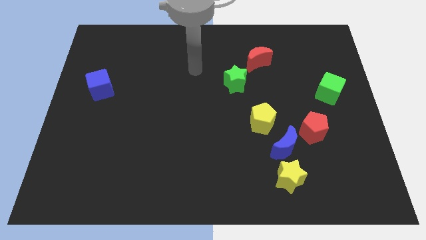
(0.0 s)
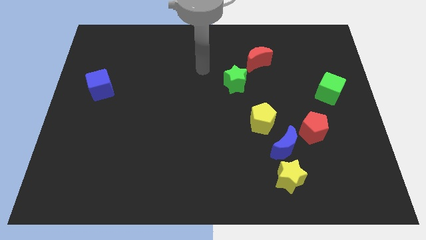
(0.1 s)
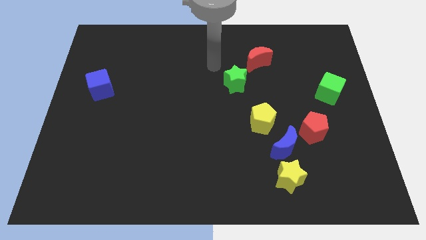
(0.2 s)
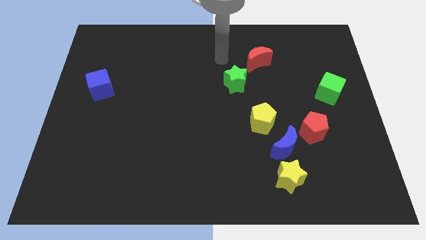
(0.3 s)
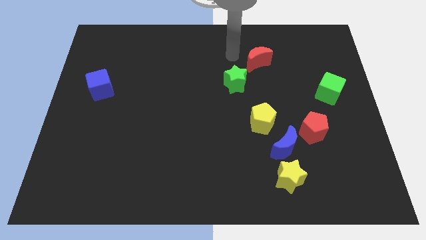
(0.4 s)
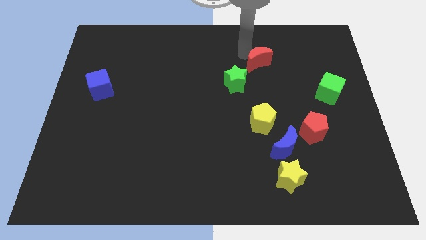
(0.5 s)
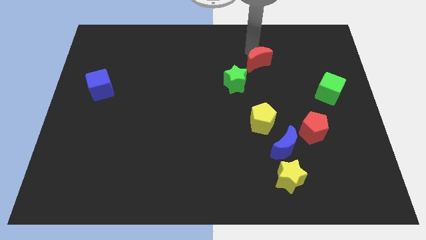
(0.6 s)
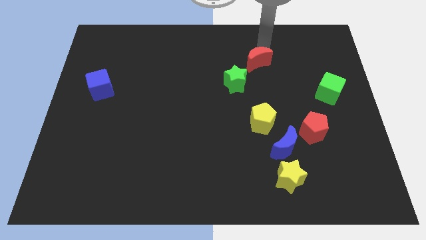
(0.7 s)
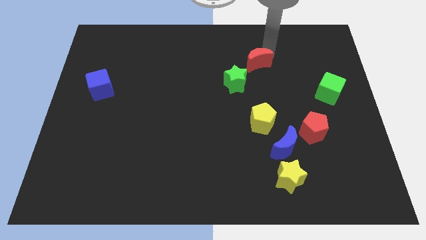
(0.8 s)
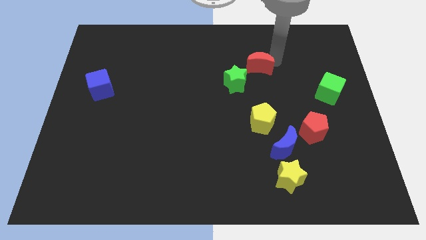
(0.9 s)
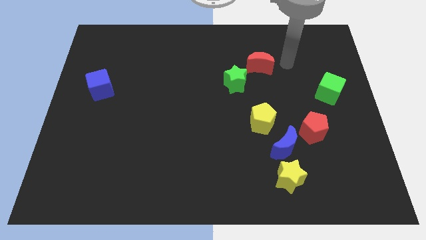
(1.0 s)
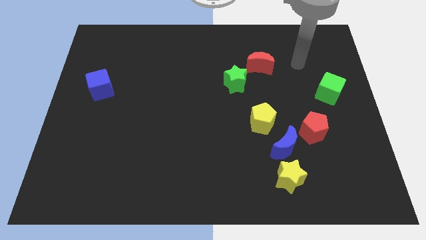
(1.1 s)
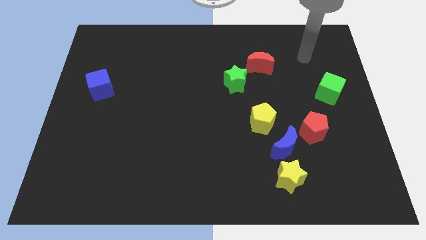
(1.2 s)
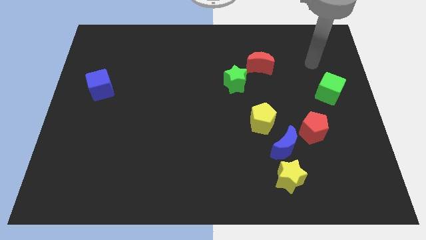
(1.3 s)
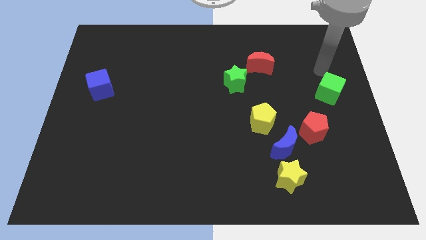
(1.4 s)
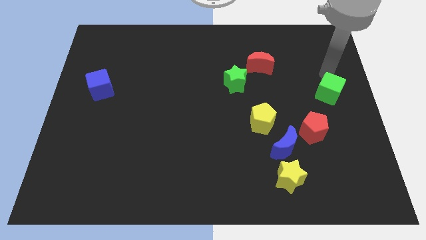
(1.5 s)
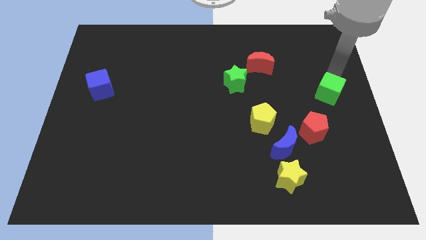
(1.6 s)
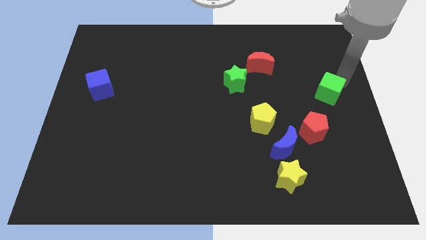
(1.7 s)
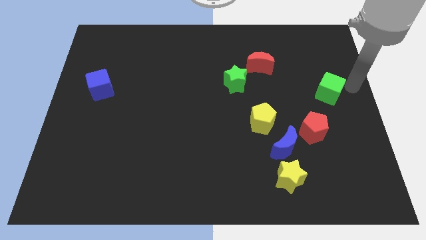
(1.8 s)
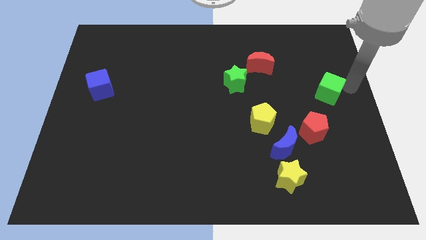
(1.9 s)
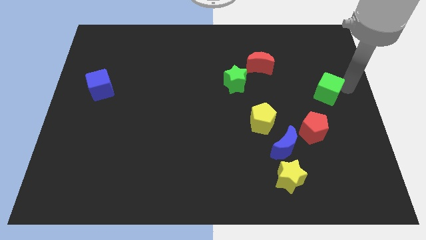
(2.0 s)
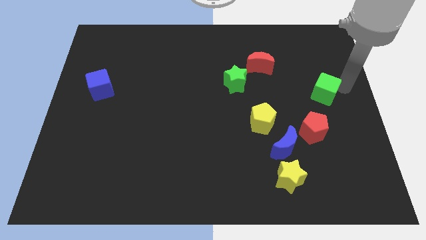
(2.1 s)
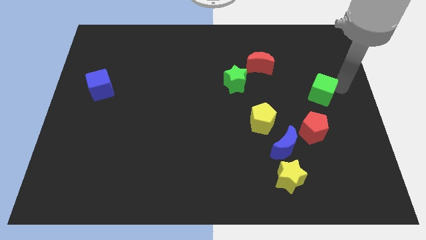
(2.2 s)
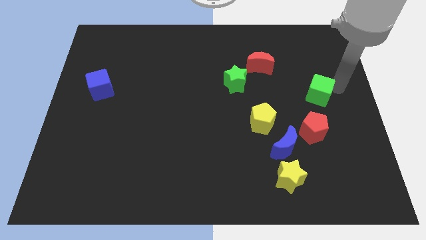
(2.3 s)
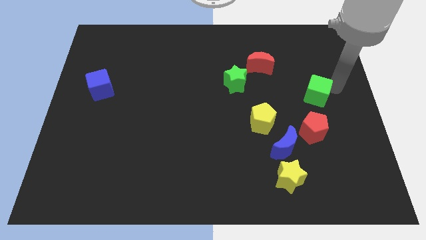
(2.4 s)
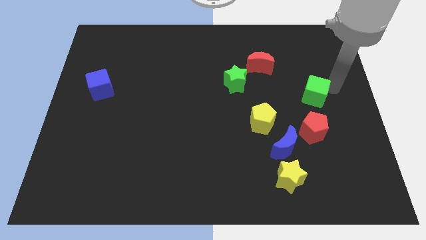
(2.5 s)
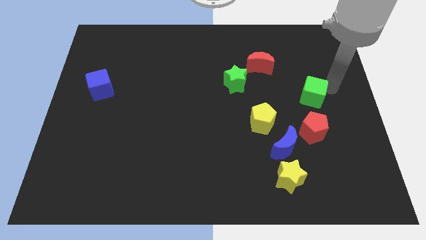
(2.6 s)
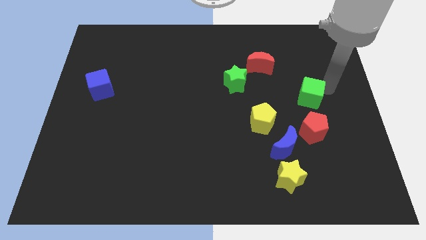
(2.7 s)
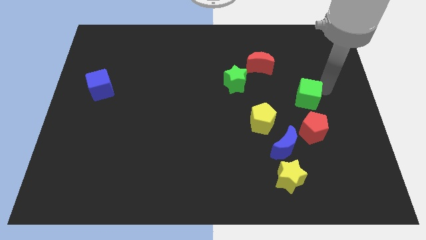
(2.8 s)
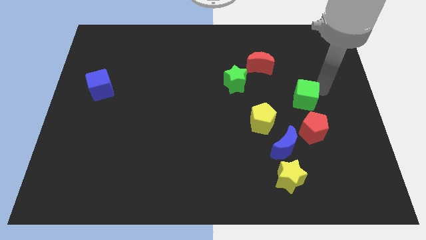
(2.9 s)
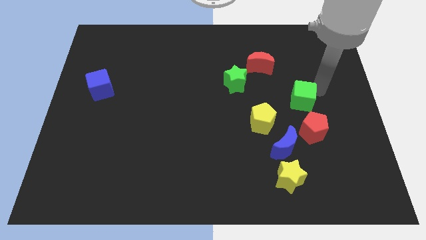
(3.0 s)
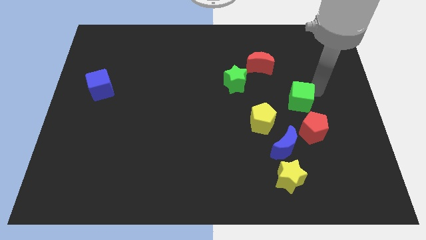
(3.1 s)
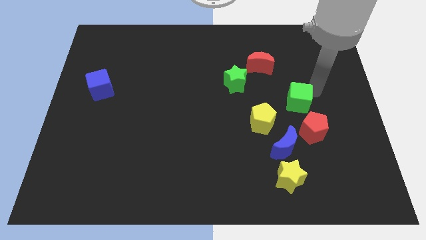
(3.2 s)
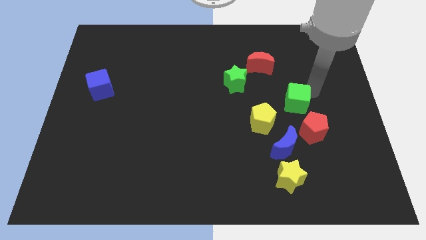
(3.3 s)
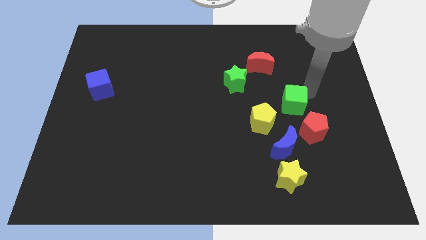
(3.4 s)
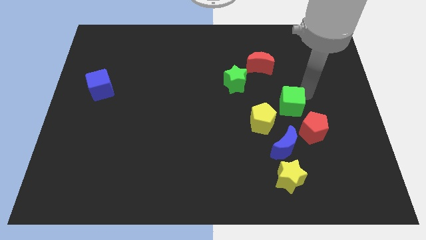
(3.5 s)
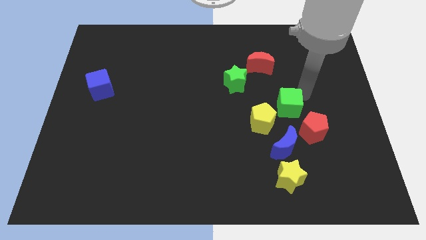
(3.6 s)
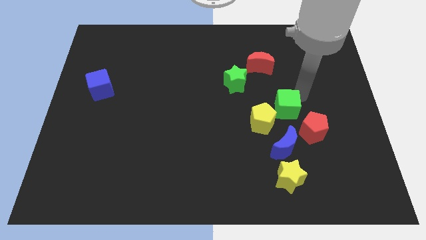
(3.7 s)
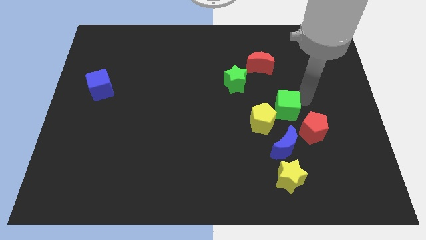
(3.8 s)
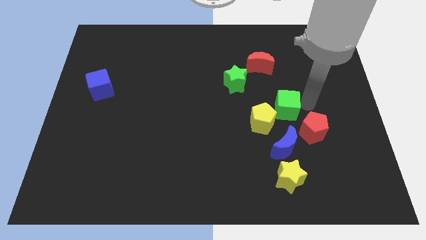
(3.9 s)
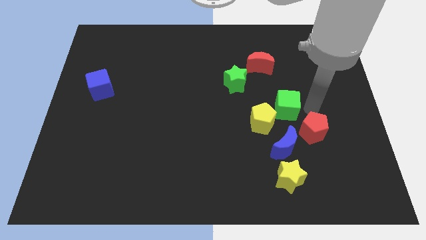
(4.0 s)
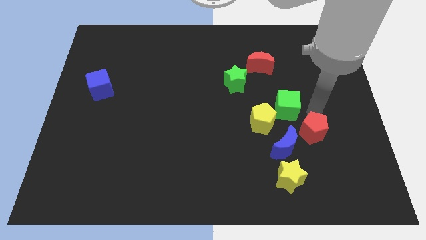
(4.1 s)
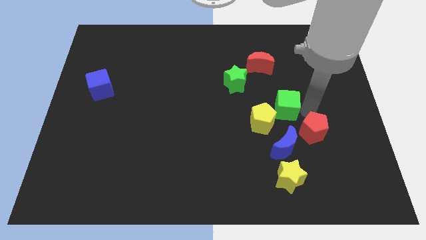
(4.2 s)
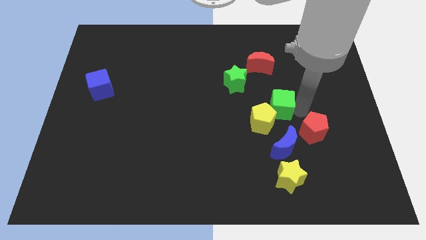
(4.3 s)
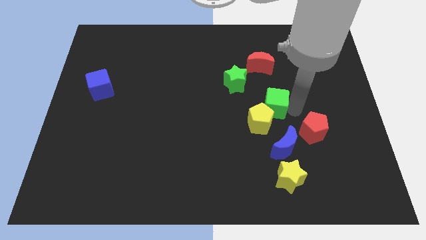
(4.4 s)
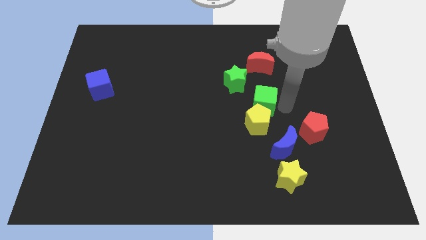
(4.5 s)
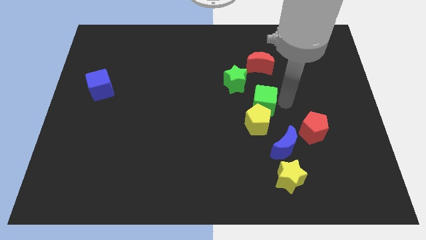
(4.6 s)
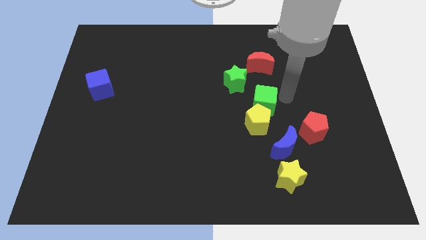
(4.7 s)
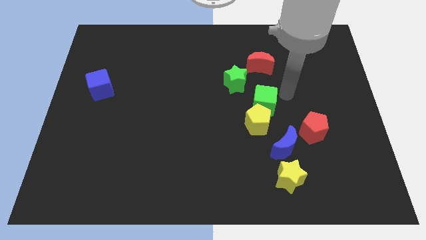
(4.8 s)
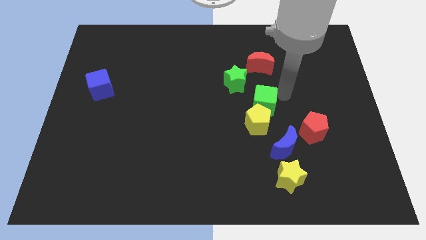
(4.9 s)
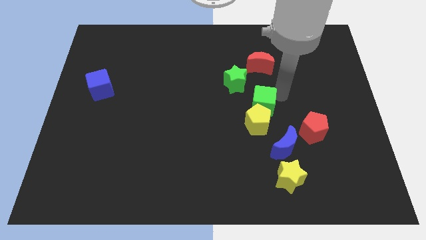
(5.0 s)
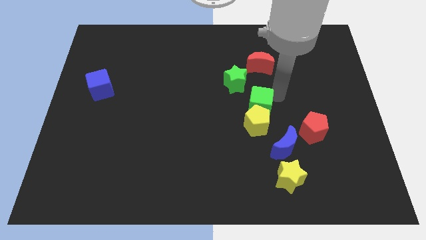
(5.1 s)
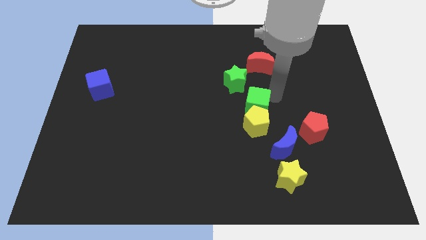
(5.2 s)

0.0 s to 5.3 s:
put the green cube below the green star

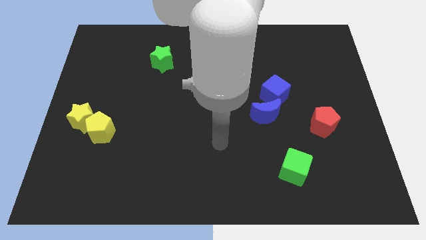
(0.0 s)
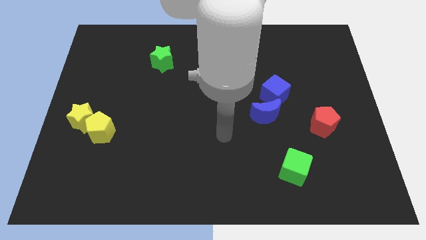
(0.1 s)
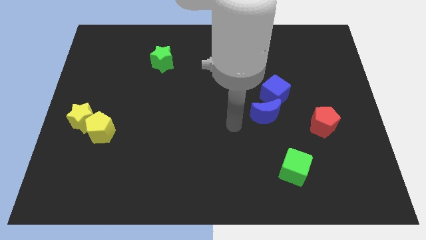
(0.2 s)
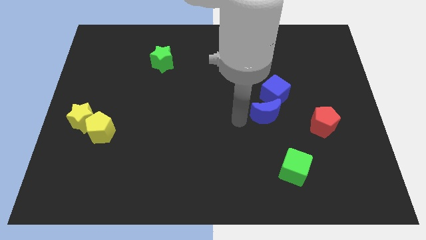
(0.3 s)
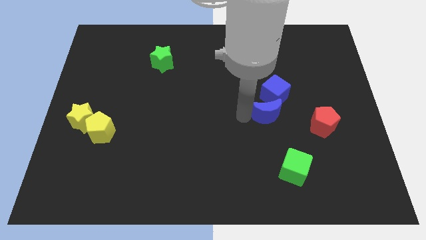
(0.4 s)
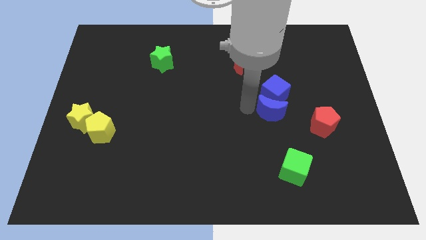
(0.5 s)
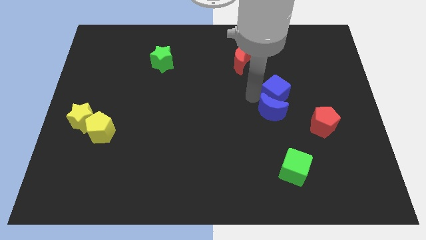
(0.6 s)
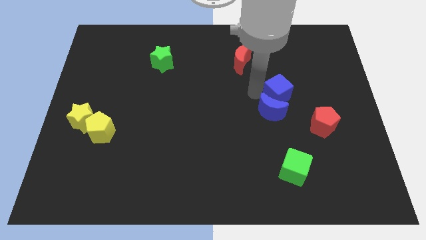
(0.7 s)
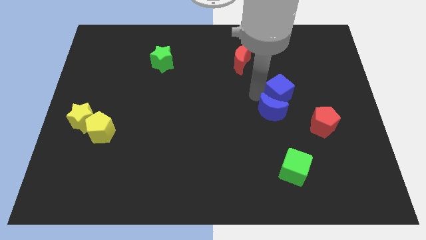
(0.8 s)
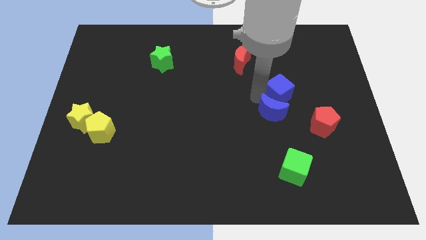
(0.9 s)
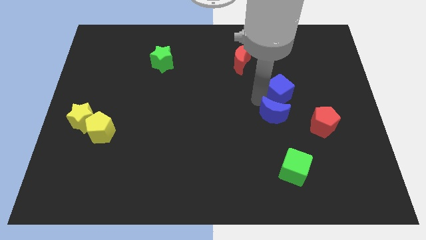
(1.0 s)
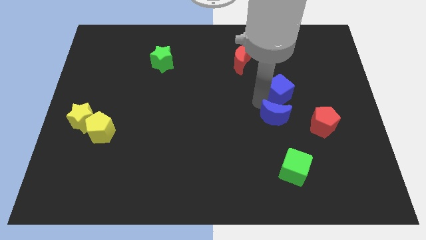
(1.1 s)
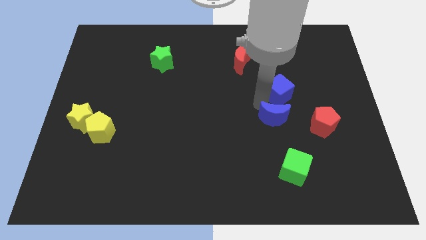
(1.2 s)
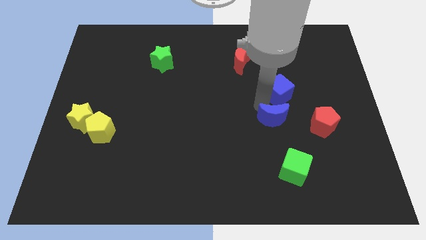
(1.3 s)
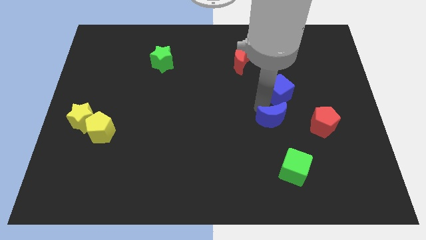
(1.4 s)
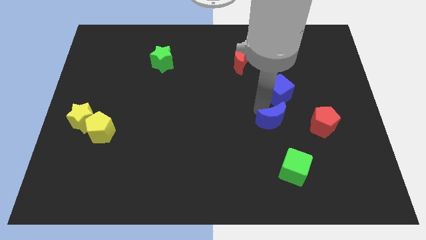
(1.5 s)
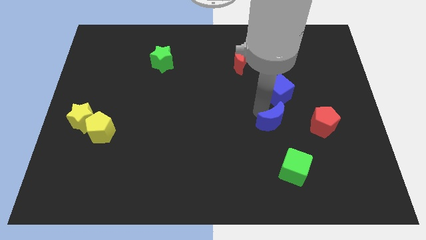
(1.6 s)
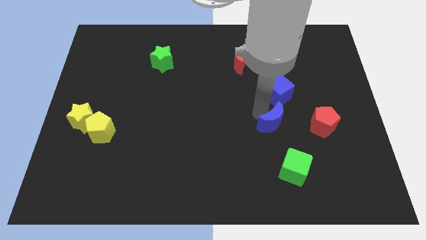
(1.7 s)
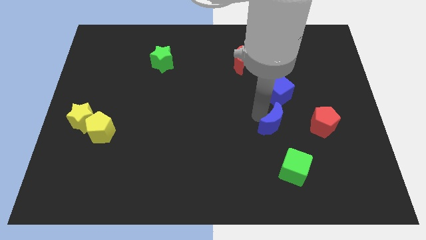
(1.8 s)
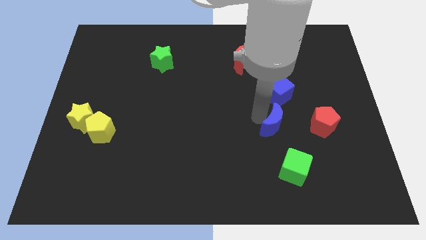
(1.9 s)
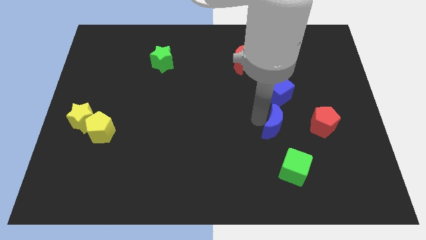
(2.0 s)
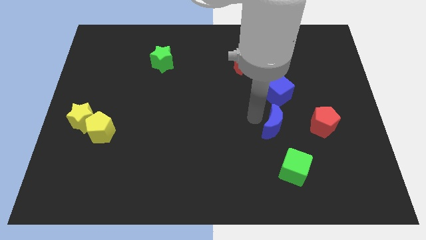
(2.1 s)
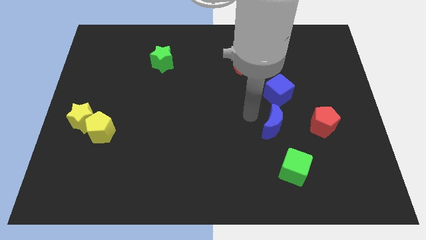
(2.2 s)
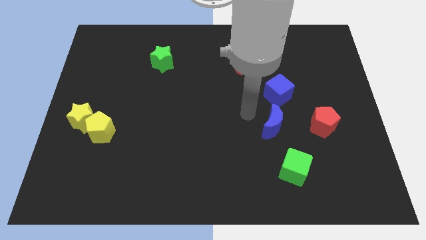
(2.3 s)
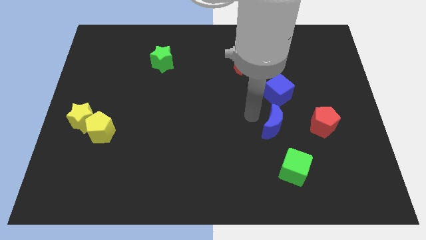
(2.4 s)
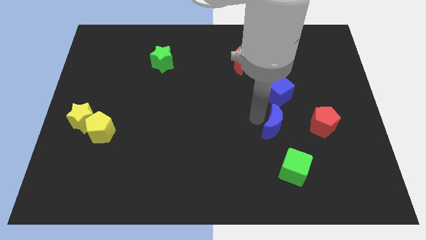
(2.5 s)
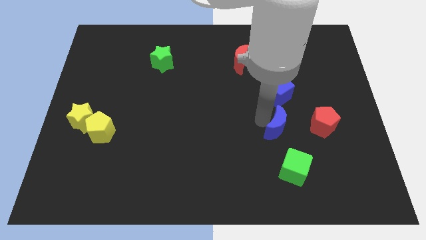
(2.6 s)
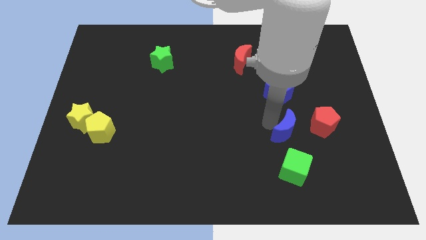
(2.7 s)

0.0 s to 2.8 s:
put the blue moon to the bottom left of the red pentagon
